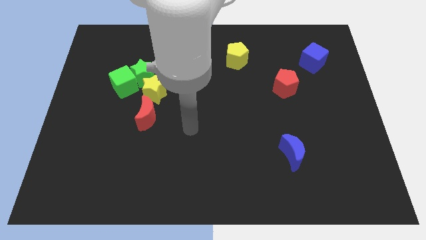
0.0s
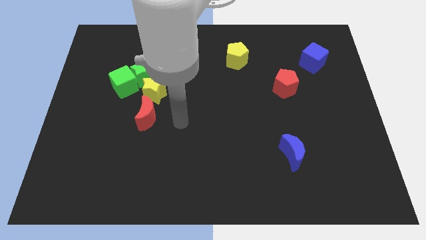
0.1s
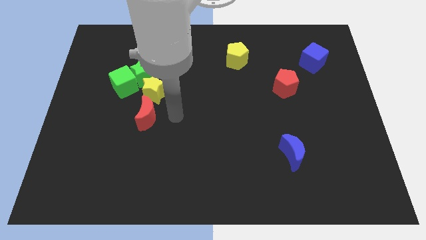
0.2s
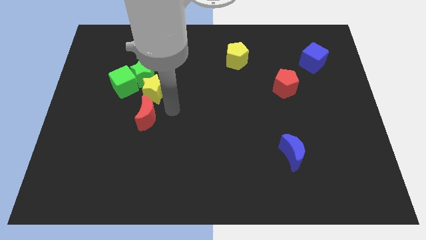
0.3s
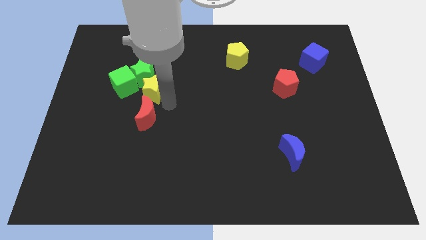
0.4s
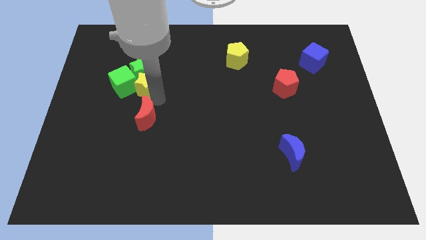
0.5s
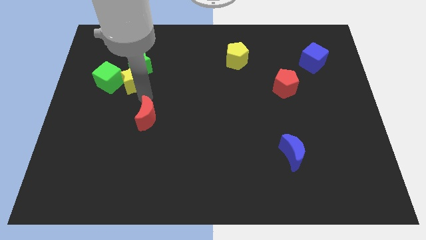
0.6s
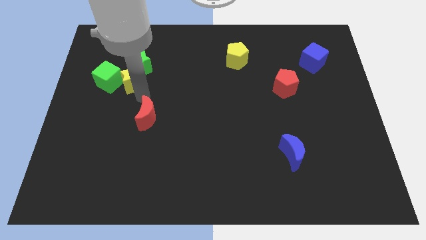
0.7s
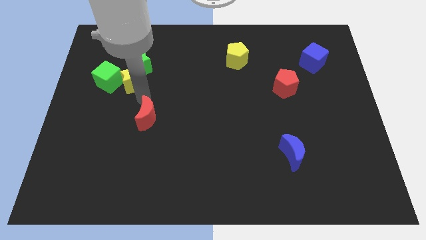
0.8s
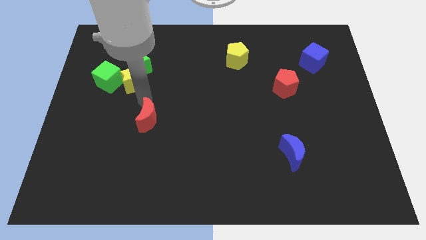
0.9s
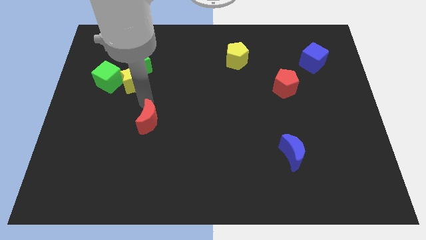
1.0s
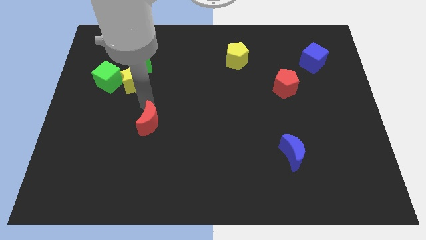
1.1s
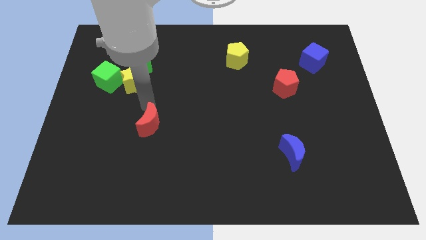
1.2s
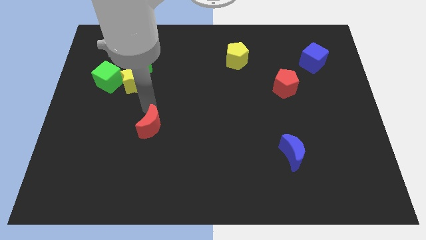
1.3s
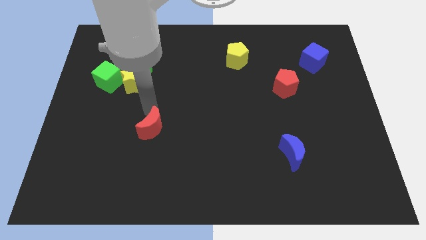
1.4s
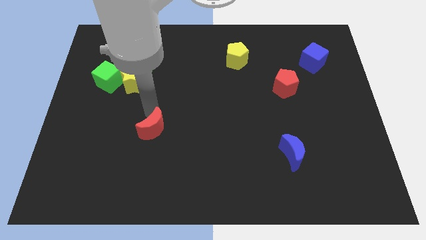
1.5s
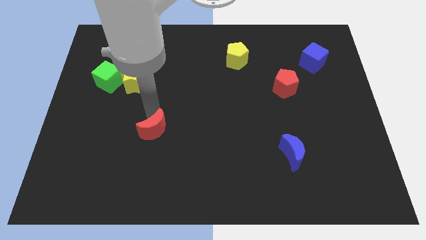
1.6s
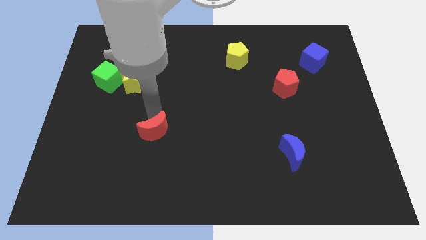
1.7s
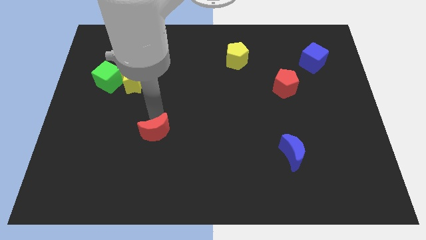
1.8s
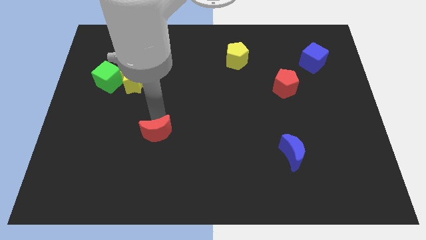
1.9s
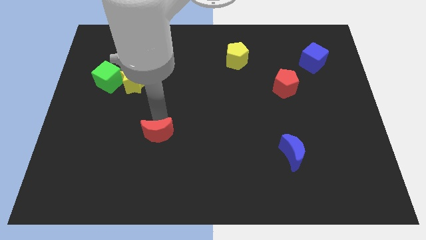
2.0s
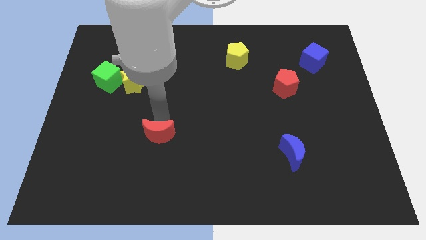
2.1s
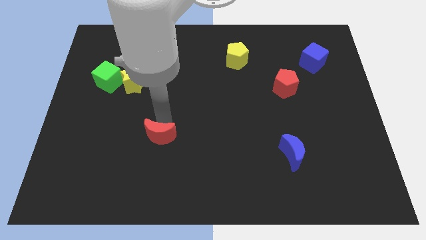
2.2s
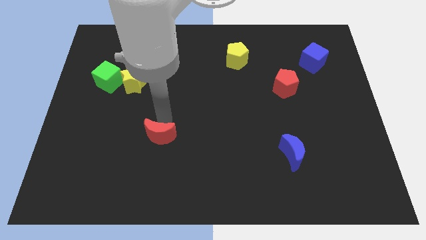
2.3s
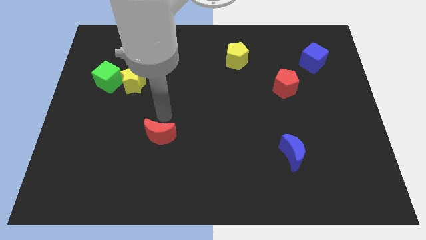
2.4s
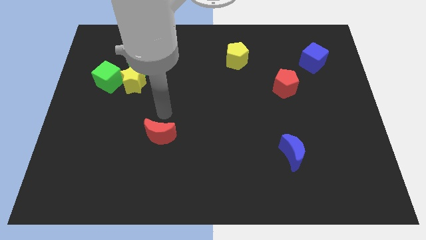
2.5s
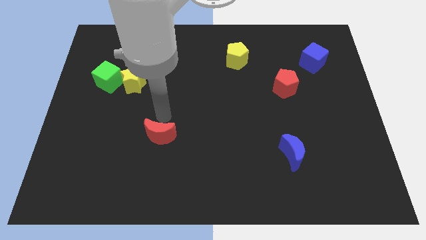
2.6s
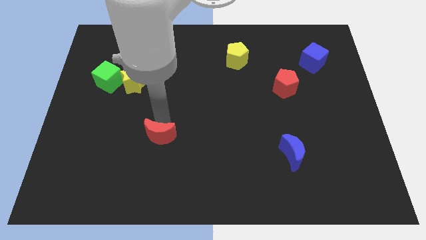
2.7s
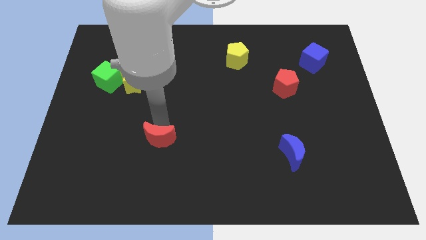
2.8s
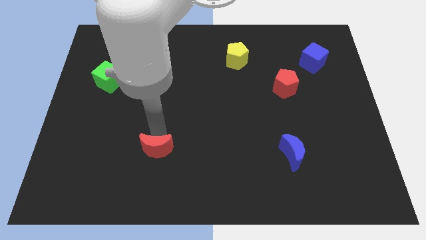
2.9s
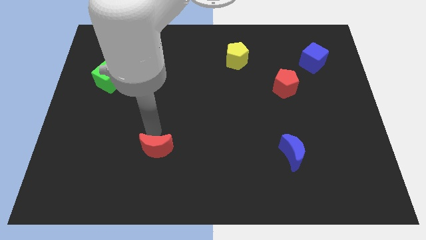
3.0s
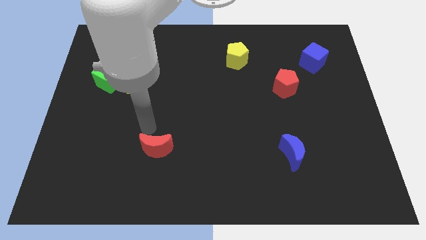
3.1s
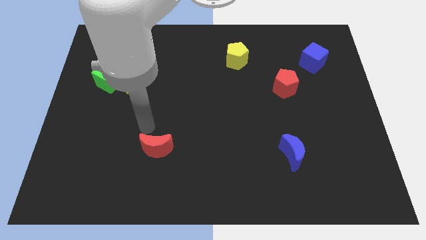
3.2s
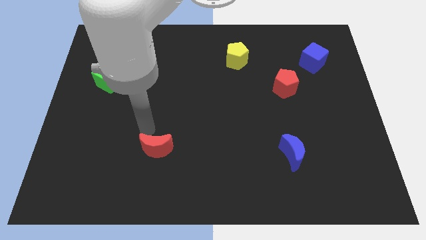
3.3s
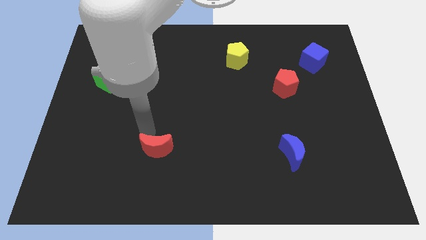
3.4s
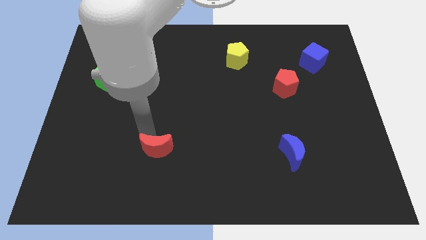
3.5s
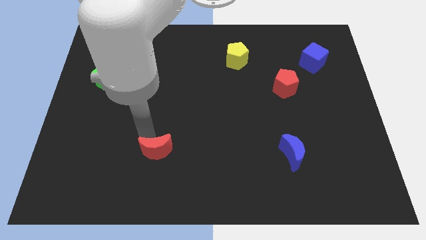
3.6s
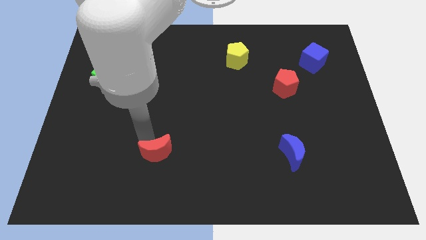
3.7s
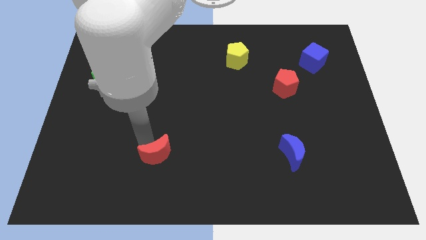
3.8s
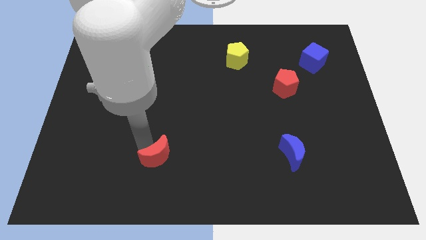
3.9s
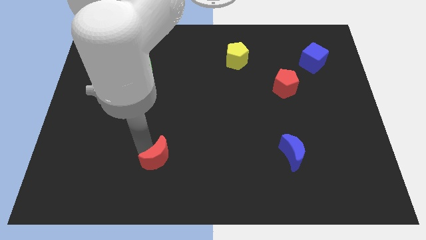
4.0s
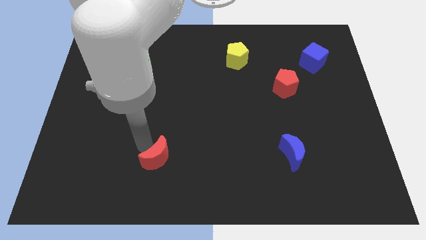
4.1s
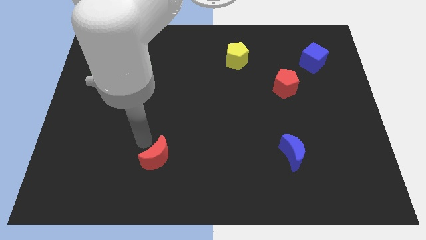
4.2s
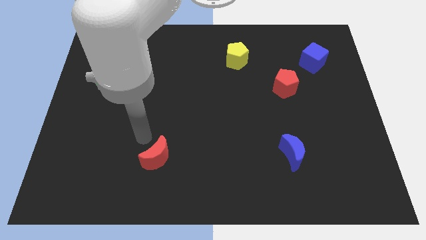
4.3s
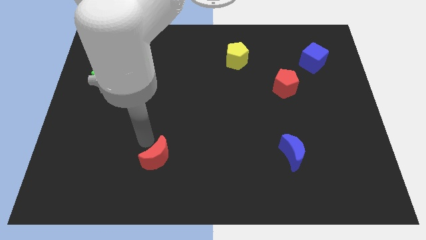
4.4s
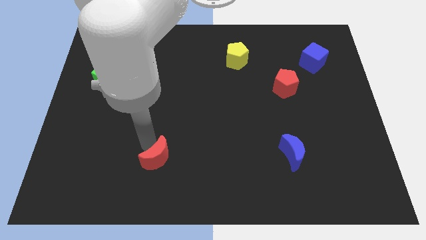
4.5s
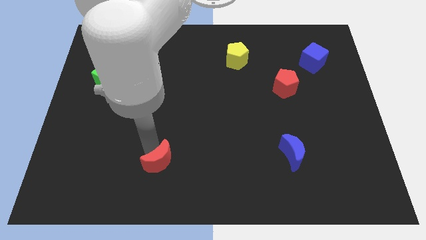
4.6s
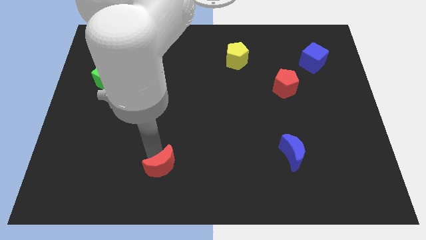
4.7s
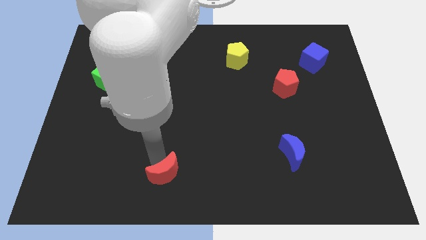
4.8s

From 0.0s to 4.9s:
put the red moon to the bottom side
